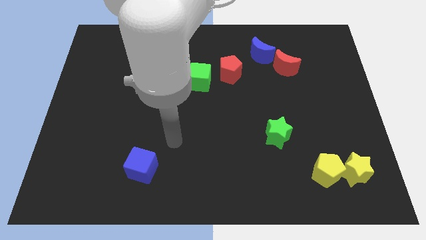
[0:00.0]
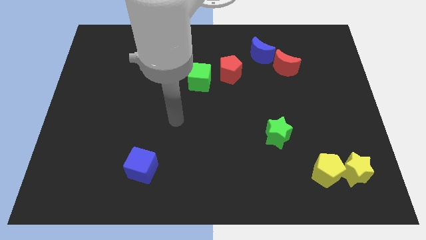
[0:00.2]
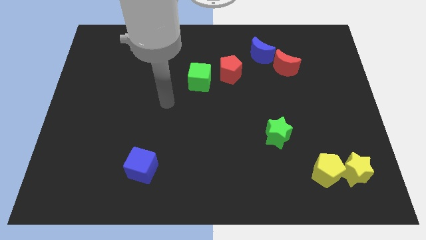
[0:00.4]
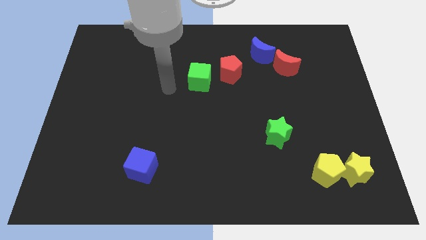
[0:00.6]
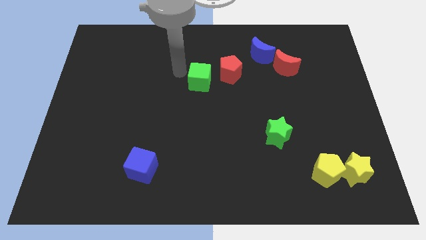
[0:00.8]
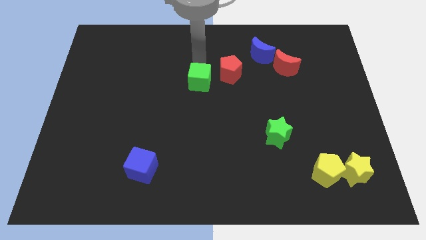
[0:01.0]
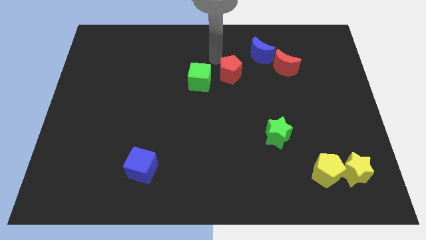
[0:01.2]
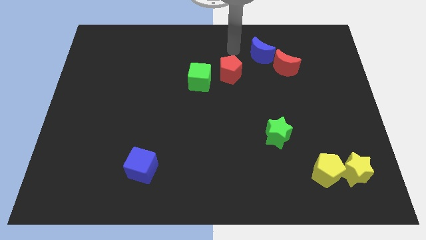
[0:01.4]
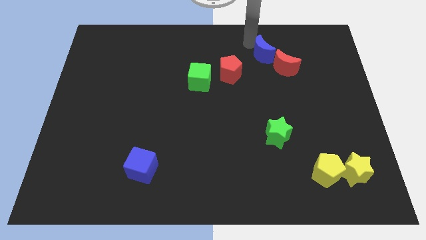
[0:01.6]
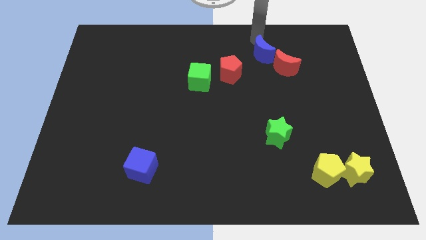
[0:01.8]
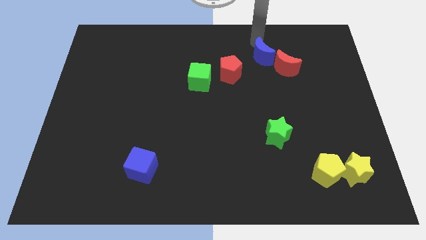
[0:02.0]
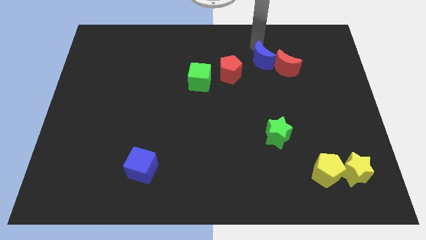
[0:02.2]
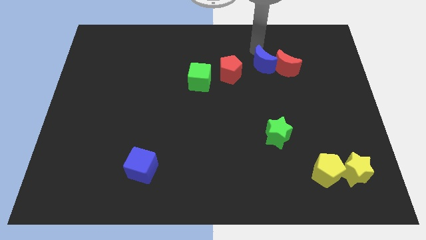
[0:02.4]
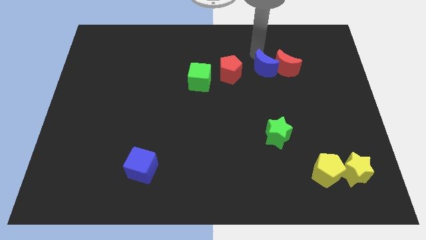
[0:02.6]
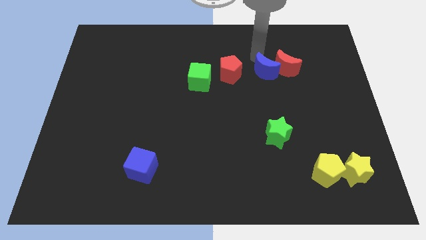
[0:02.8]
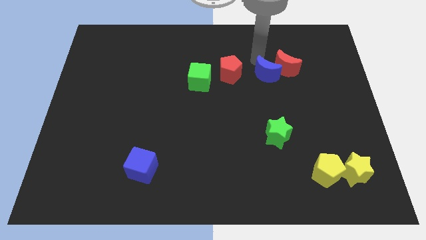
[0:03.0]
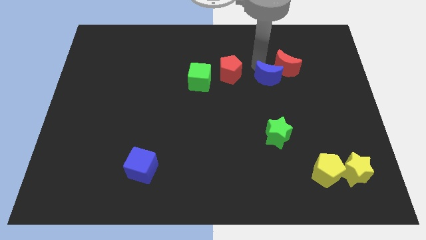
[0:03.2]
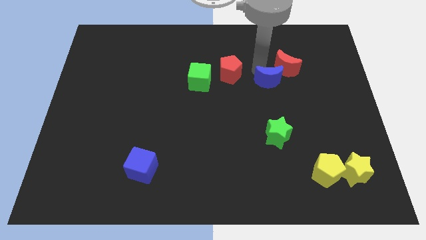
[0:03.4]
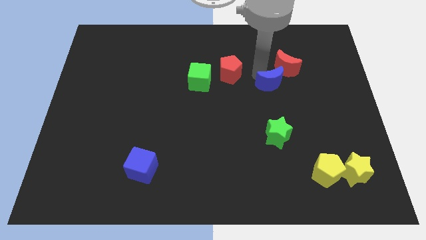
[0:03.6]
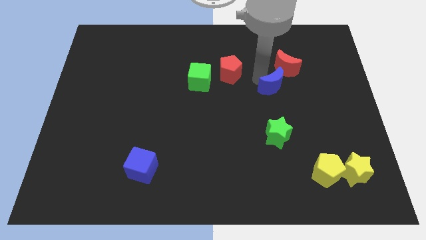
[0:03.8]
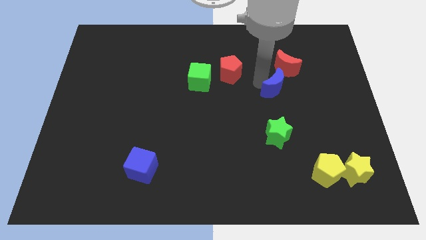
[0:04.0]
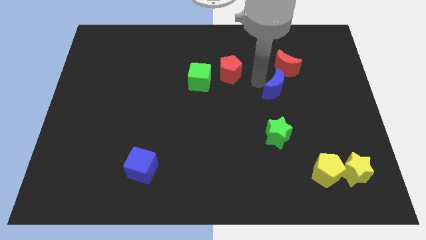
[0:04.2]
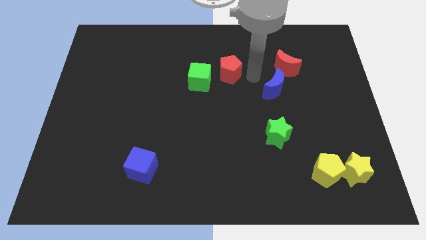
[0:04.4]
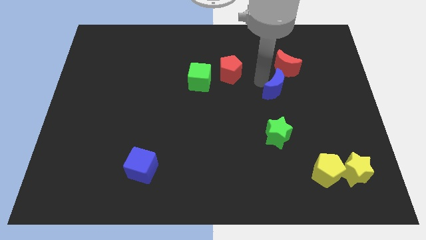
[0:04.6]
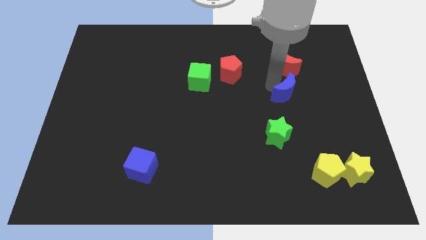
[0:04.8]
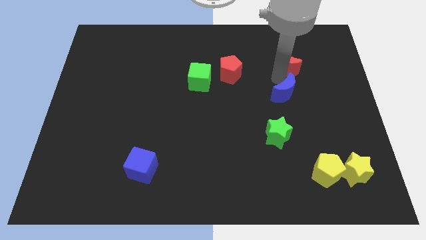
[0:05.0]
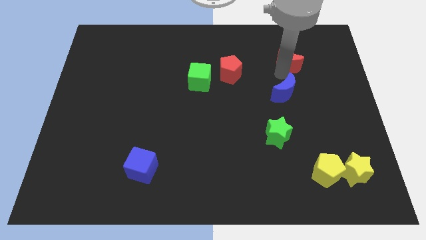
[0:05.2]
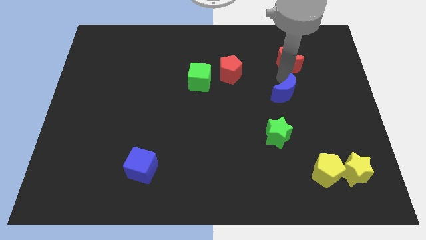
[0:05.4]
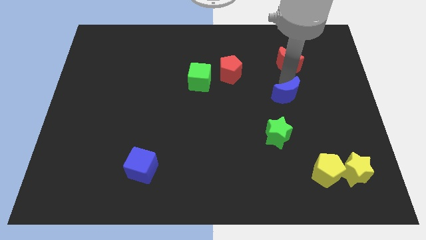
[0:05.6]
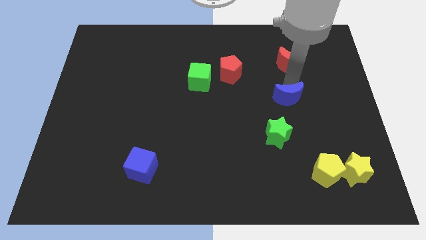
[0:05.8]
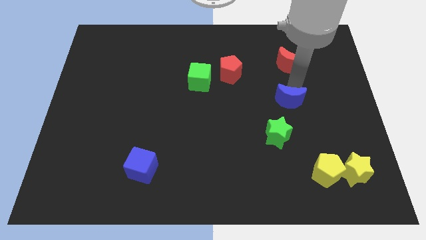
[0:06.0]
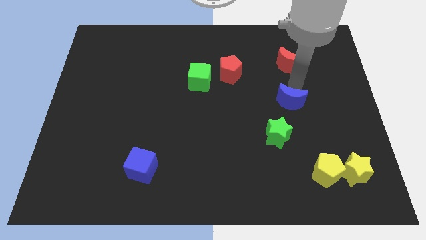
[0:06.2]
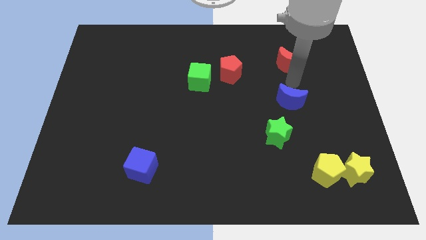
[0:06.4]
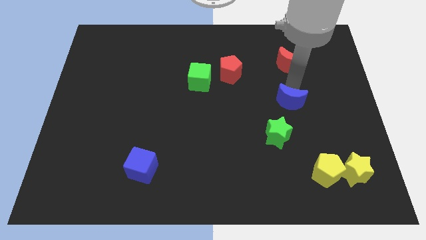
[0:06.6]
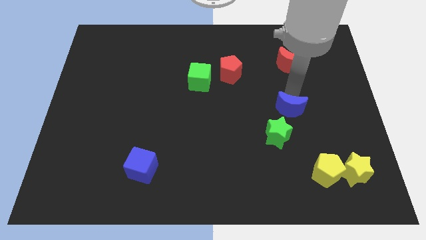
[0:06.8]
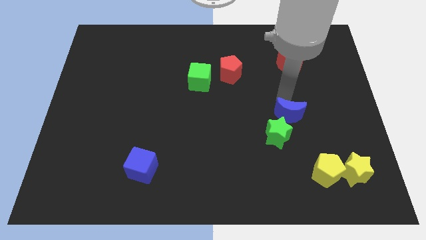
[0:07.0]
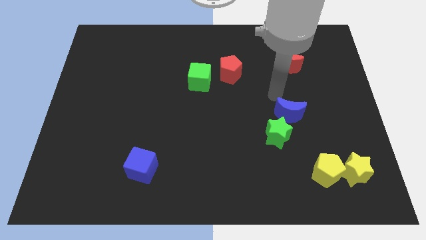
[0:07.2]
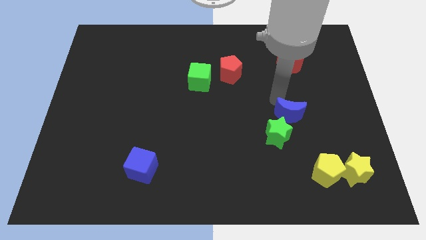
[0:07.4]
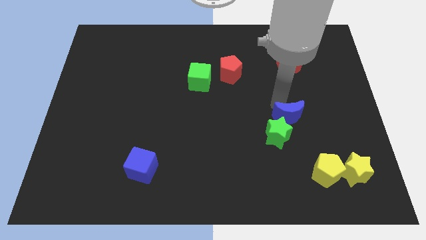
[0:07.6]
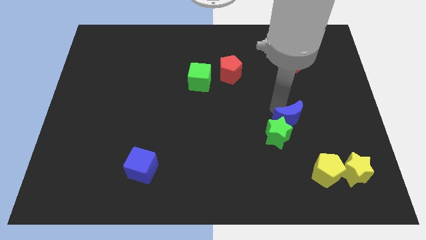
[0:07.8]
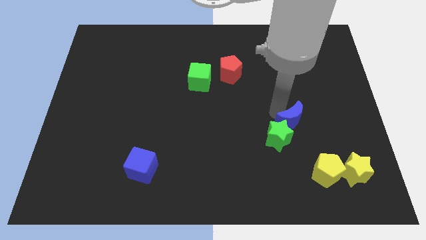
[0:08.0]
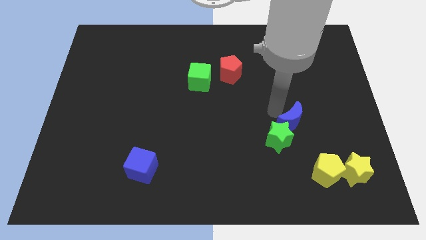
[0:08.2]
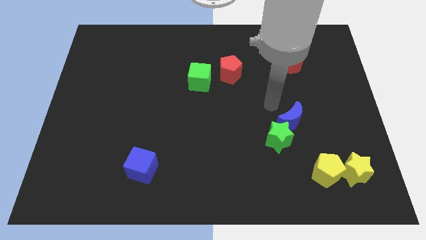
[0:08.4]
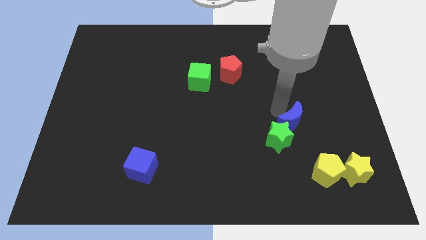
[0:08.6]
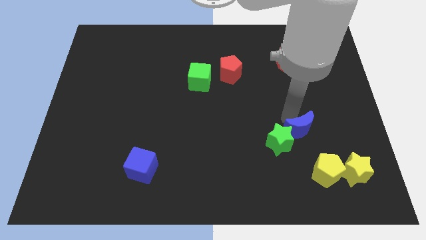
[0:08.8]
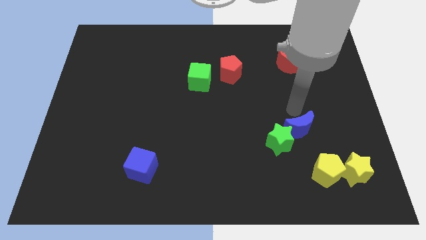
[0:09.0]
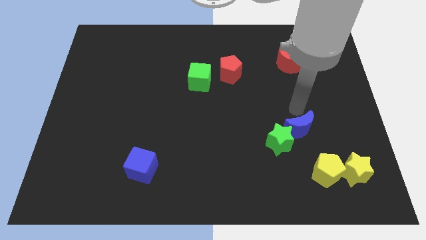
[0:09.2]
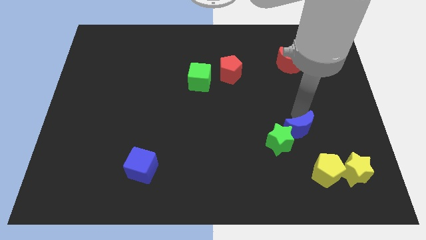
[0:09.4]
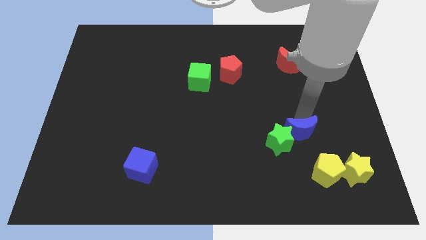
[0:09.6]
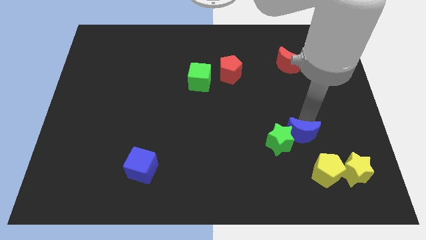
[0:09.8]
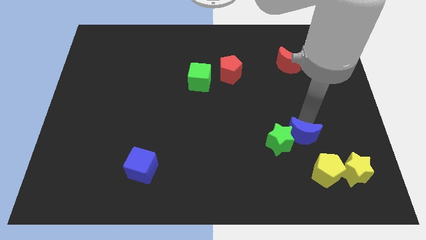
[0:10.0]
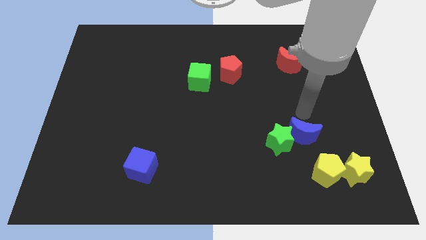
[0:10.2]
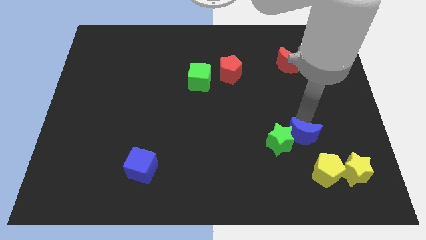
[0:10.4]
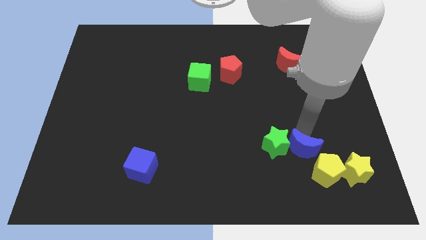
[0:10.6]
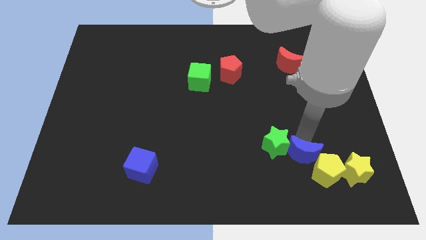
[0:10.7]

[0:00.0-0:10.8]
put the blue moon just left of the yellow star

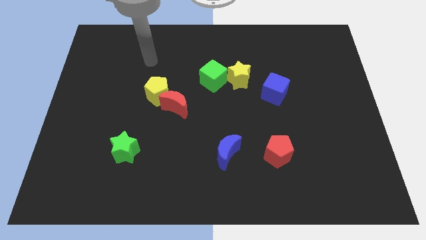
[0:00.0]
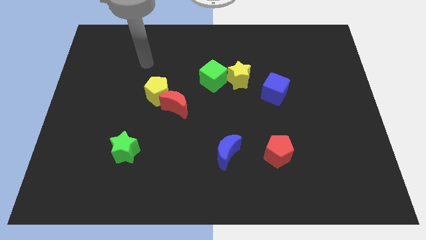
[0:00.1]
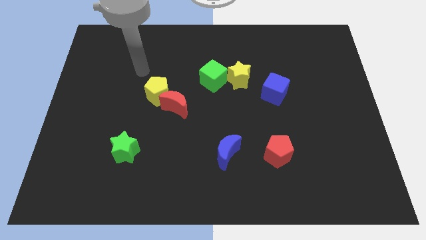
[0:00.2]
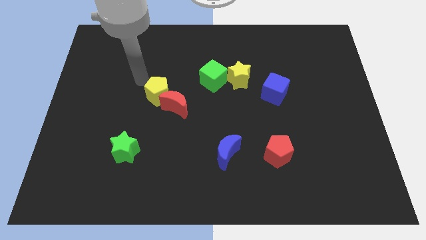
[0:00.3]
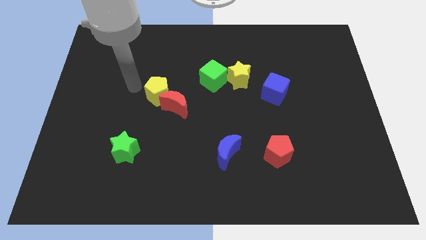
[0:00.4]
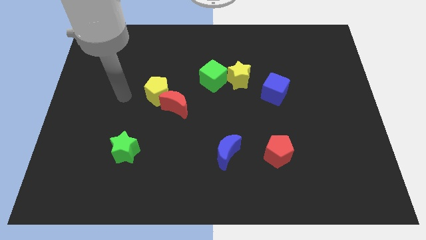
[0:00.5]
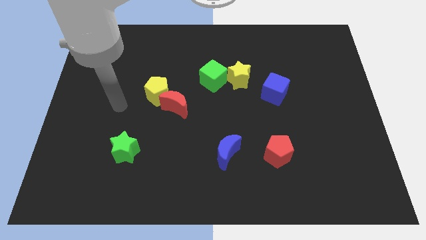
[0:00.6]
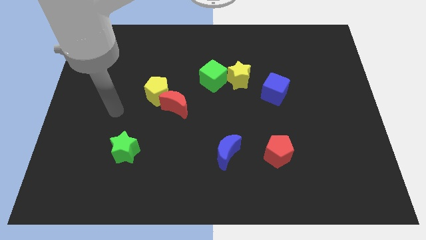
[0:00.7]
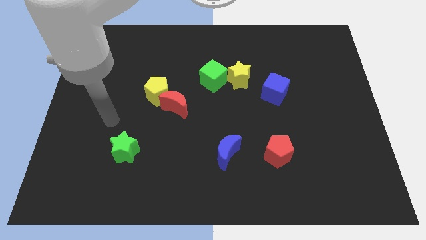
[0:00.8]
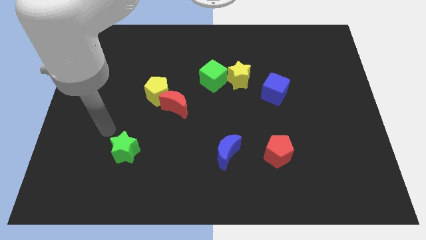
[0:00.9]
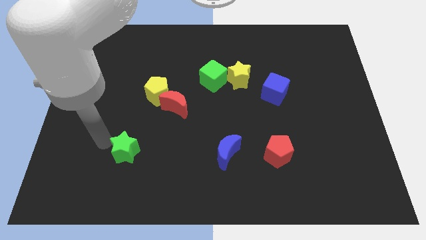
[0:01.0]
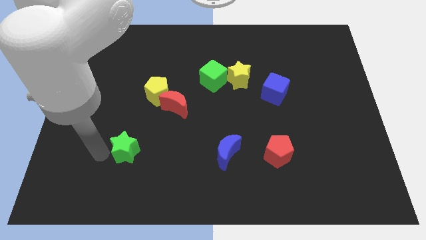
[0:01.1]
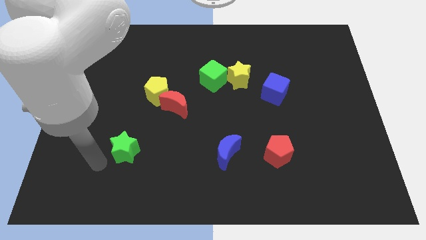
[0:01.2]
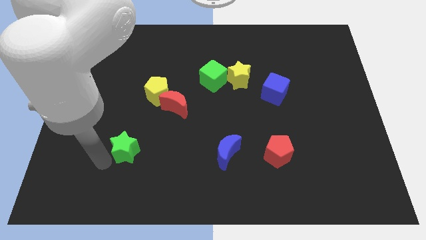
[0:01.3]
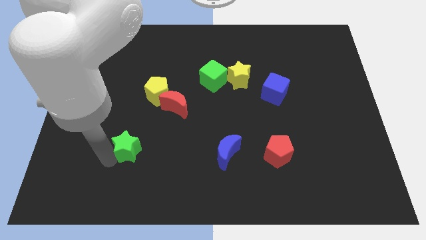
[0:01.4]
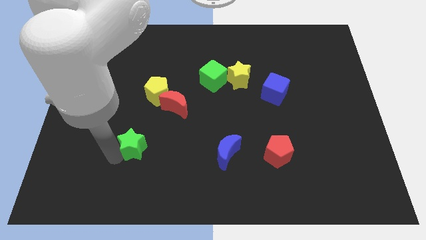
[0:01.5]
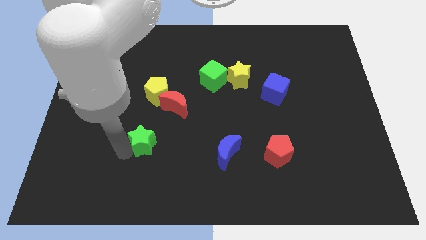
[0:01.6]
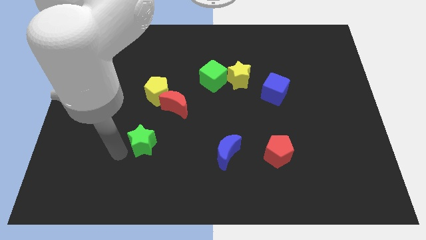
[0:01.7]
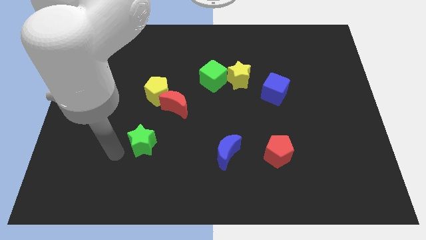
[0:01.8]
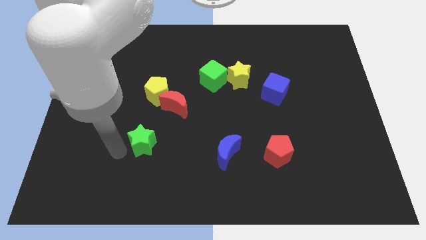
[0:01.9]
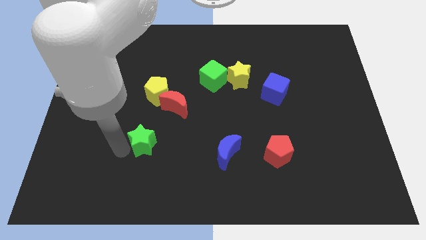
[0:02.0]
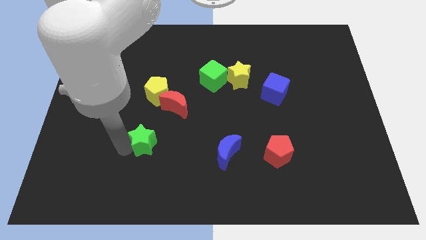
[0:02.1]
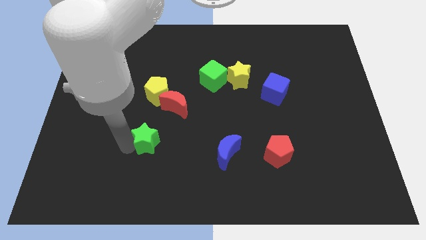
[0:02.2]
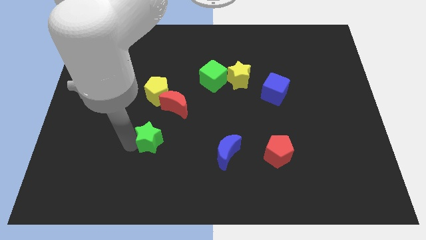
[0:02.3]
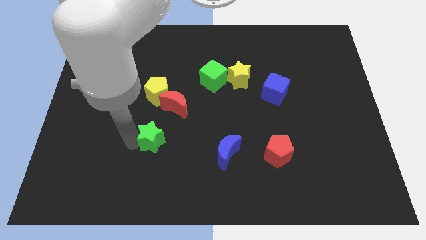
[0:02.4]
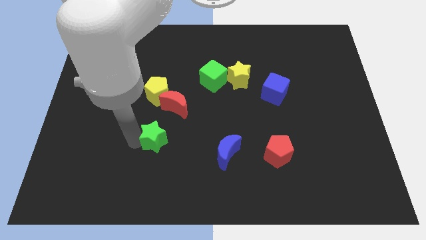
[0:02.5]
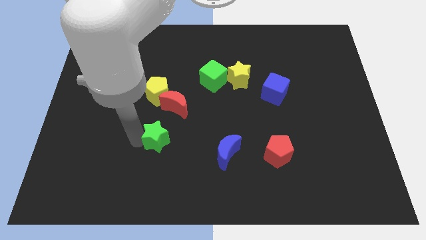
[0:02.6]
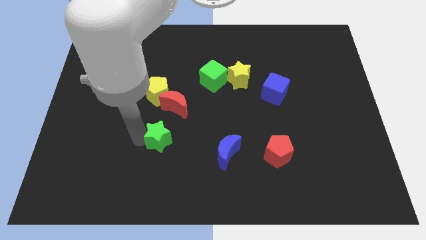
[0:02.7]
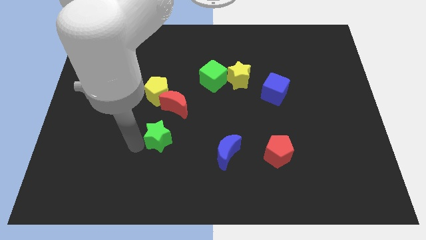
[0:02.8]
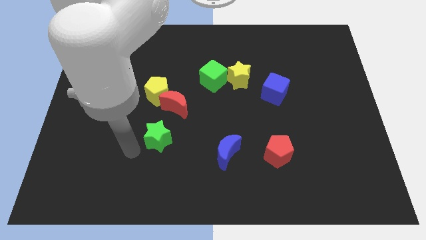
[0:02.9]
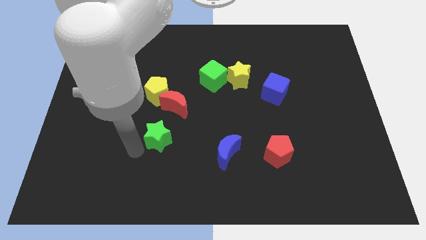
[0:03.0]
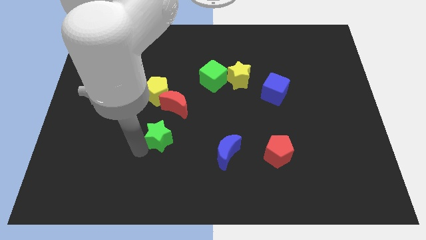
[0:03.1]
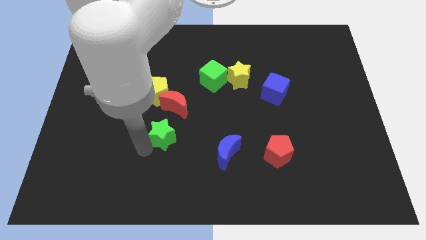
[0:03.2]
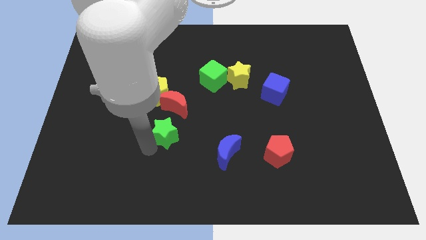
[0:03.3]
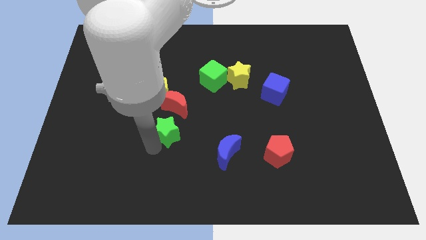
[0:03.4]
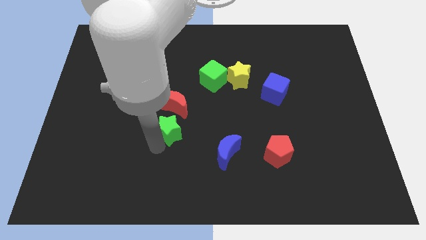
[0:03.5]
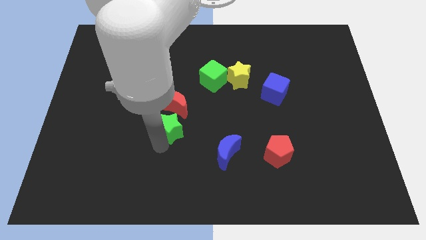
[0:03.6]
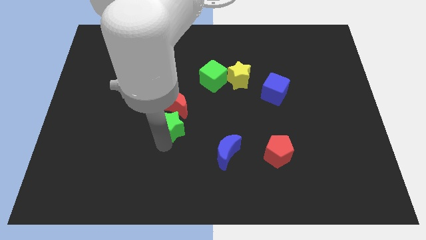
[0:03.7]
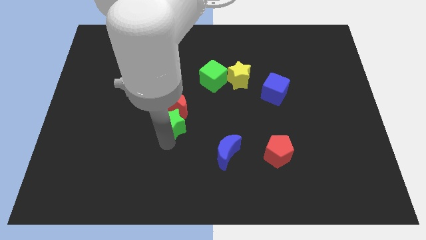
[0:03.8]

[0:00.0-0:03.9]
put the green star to the bottom right side of the red moon
